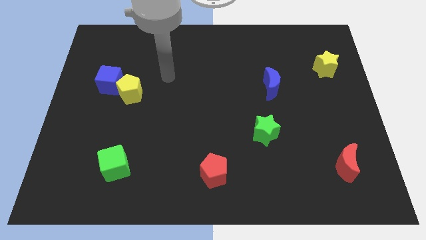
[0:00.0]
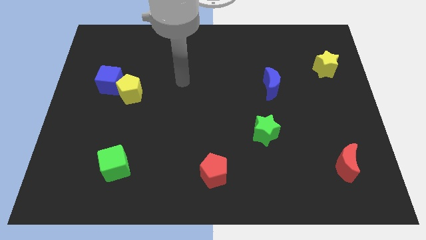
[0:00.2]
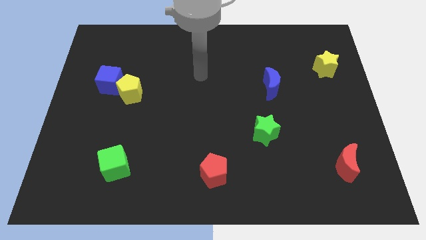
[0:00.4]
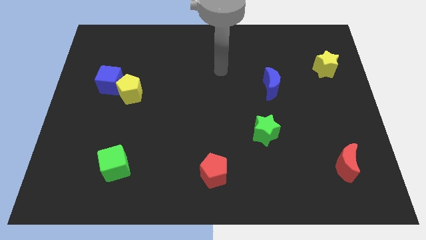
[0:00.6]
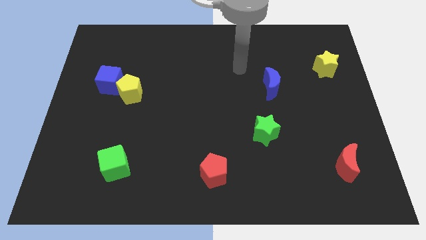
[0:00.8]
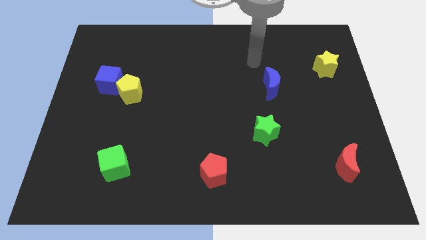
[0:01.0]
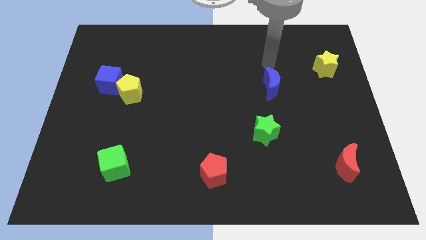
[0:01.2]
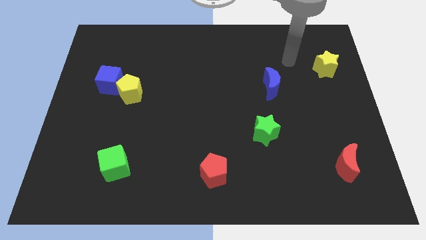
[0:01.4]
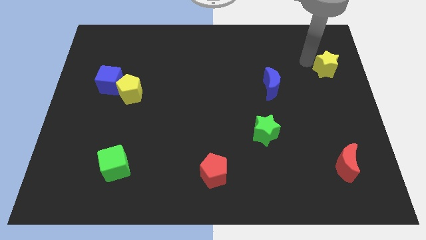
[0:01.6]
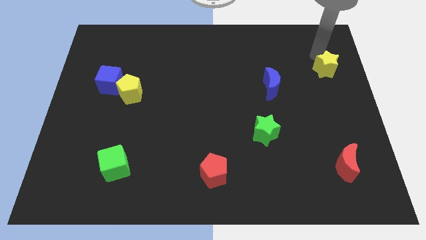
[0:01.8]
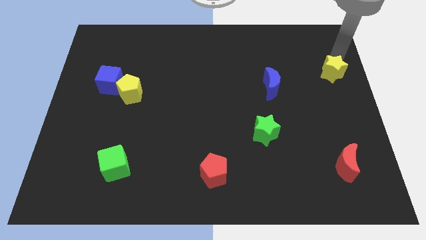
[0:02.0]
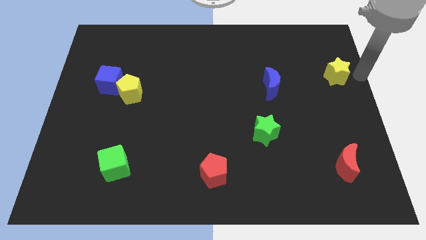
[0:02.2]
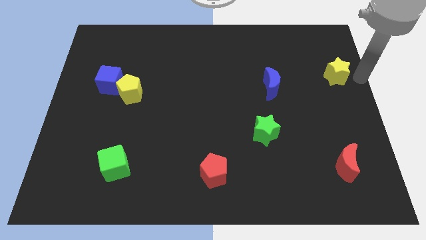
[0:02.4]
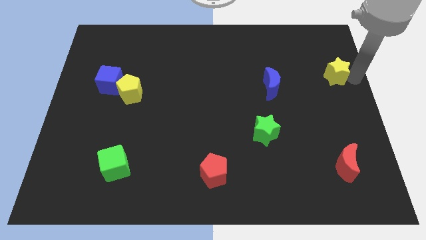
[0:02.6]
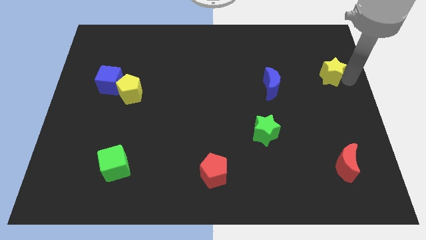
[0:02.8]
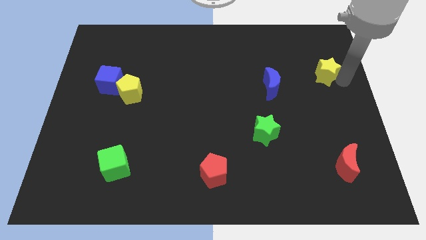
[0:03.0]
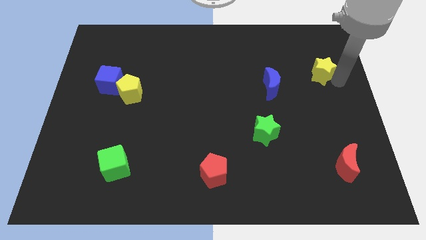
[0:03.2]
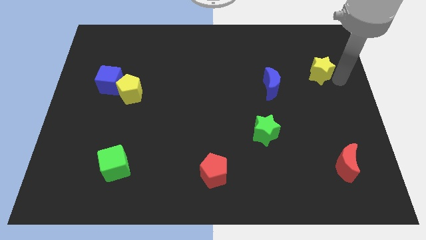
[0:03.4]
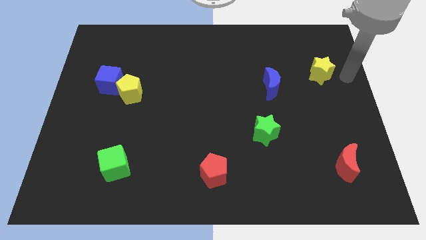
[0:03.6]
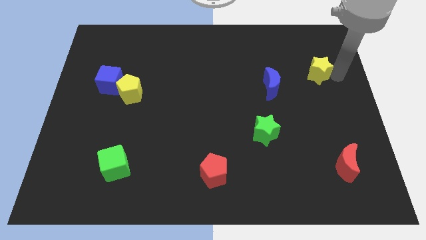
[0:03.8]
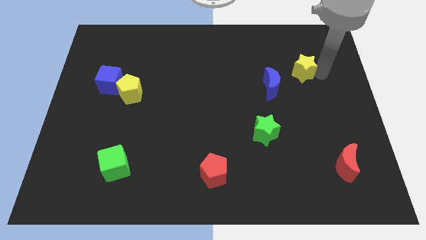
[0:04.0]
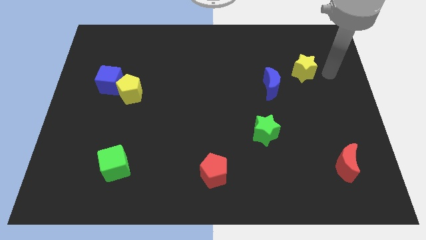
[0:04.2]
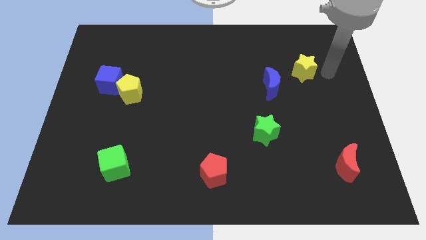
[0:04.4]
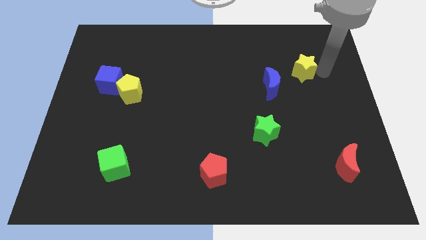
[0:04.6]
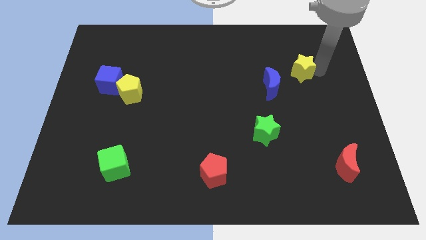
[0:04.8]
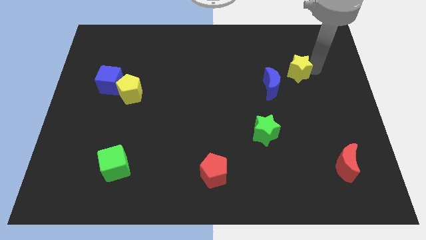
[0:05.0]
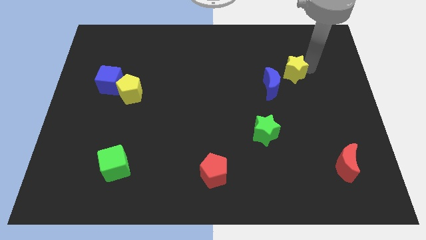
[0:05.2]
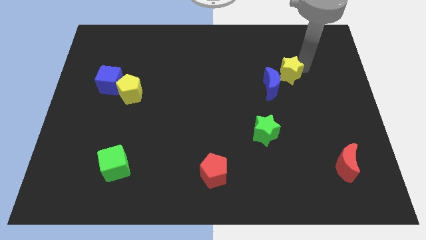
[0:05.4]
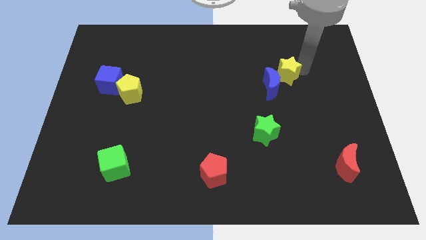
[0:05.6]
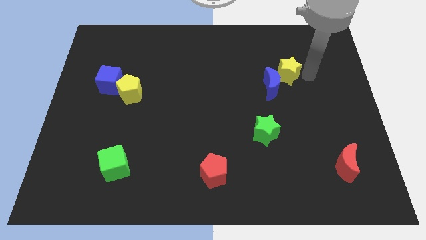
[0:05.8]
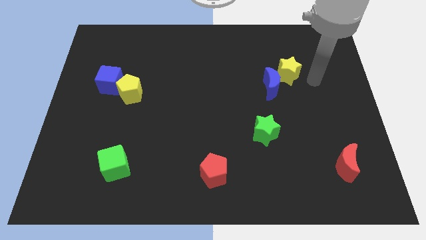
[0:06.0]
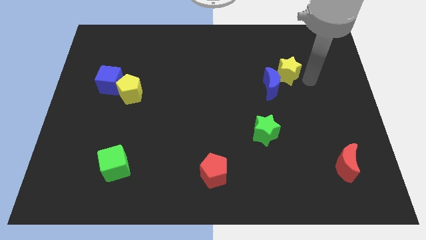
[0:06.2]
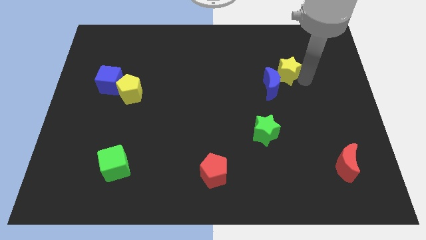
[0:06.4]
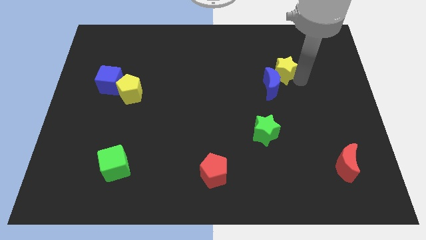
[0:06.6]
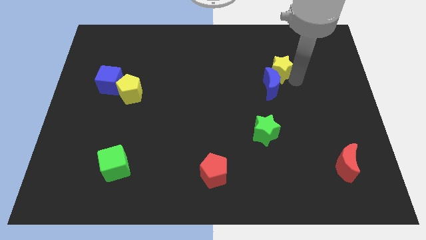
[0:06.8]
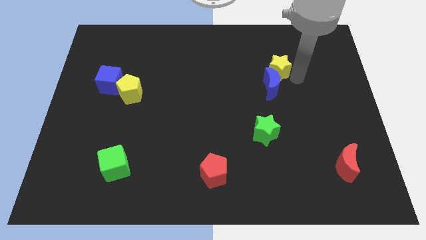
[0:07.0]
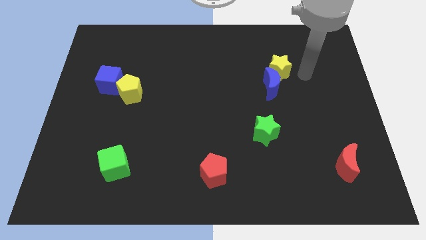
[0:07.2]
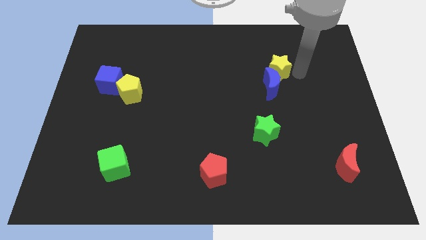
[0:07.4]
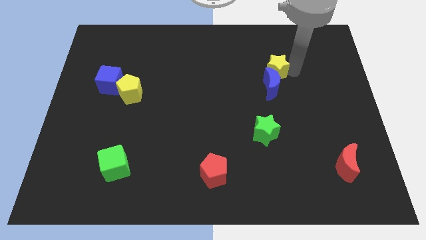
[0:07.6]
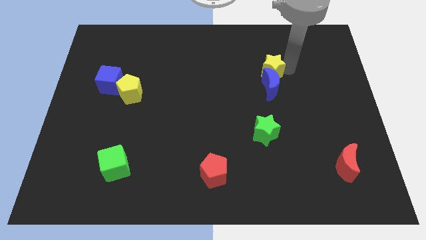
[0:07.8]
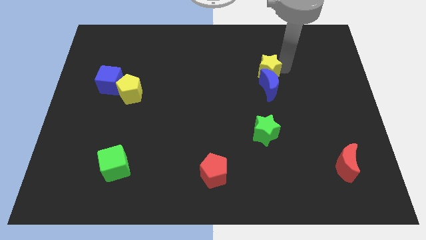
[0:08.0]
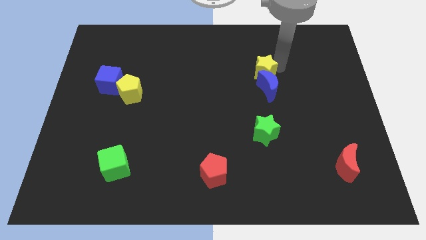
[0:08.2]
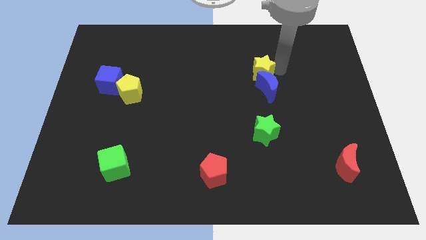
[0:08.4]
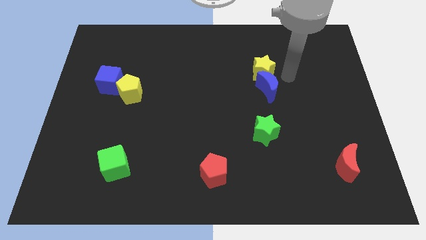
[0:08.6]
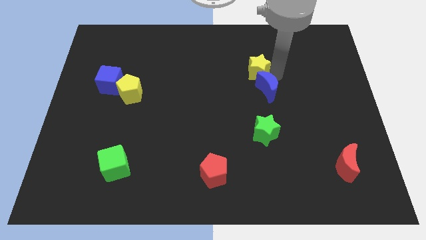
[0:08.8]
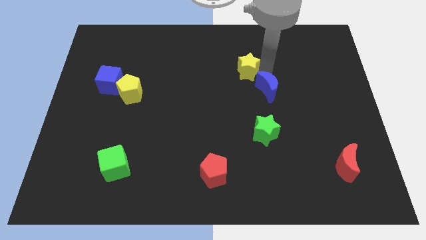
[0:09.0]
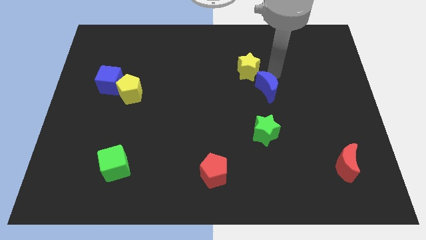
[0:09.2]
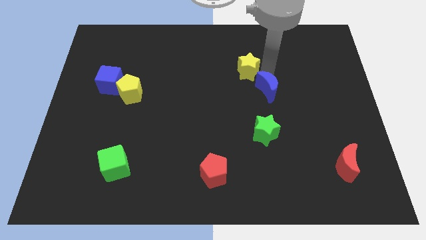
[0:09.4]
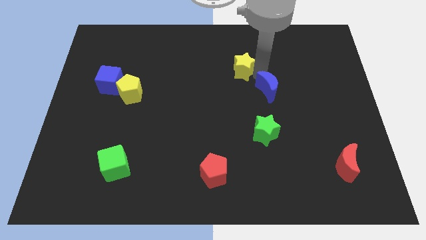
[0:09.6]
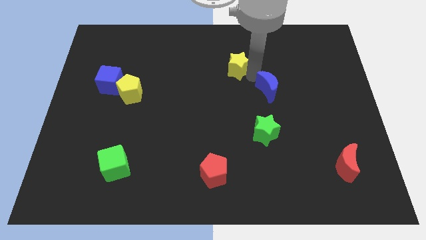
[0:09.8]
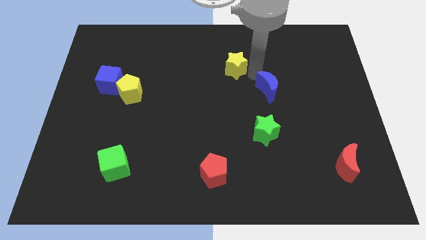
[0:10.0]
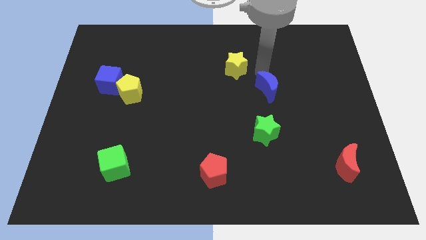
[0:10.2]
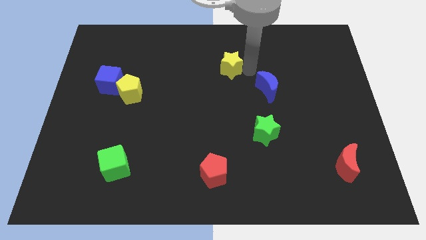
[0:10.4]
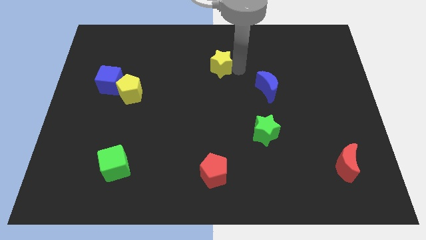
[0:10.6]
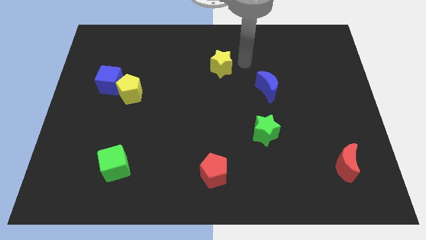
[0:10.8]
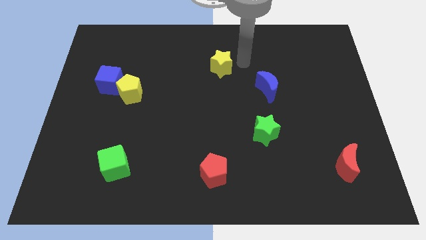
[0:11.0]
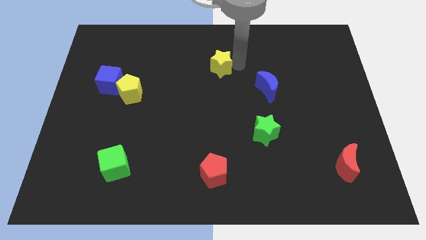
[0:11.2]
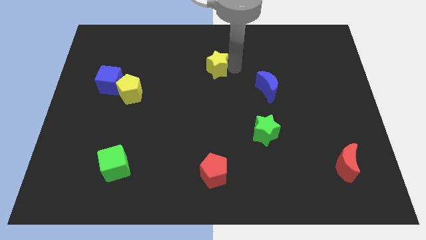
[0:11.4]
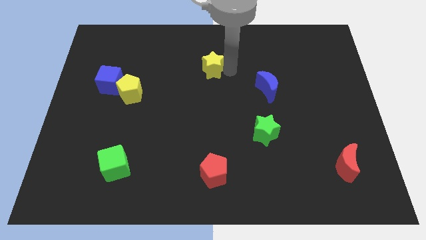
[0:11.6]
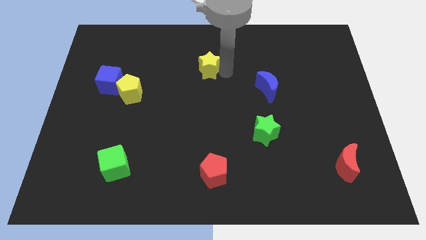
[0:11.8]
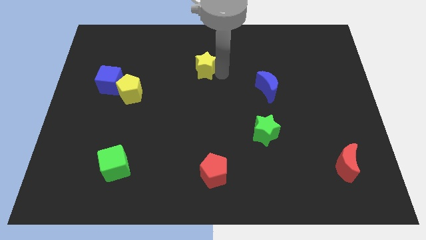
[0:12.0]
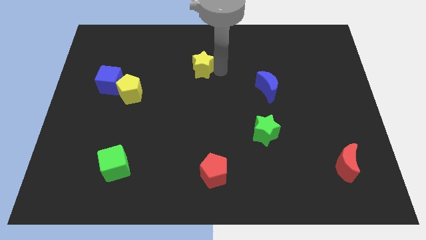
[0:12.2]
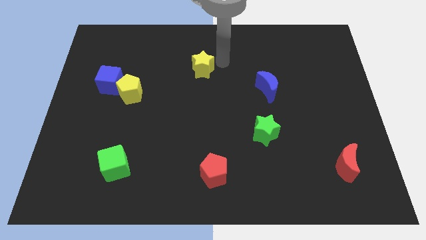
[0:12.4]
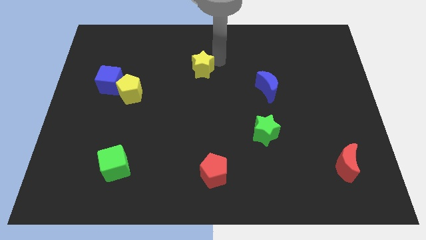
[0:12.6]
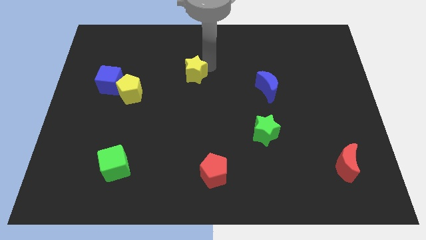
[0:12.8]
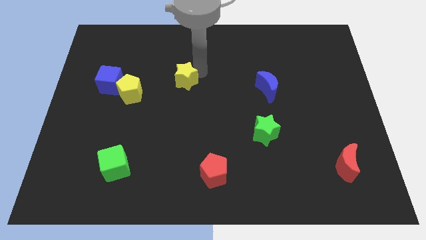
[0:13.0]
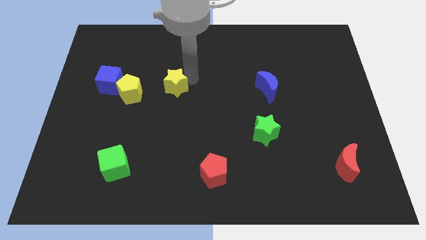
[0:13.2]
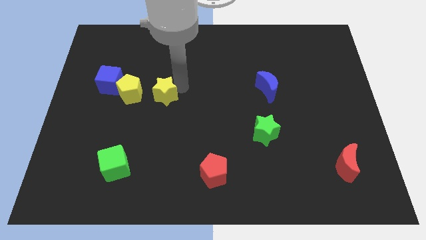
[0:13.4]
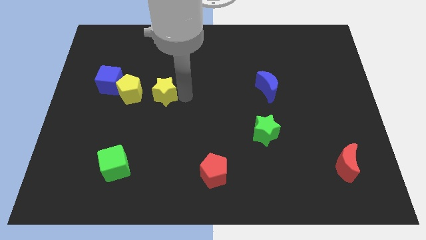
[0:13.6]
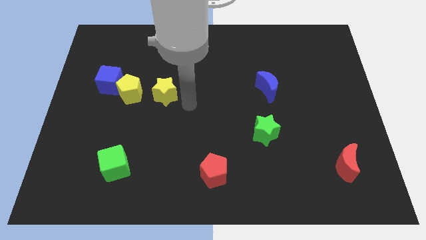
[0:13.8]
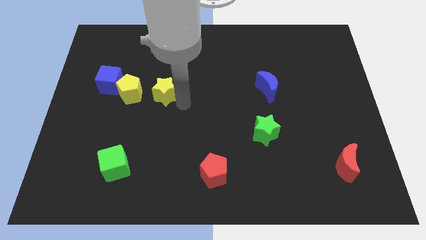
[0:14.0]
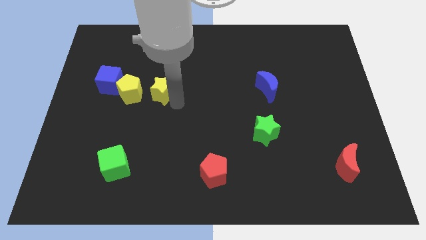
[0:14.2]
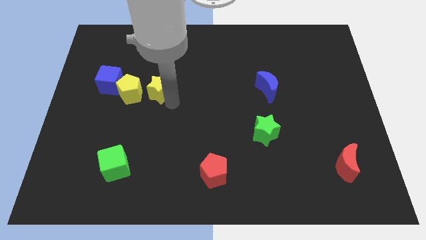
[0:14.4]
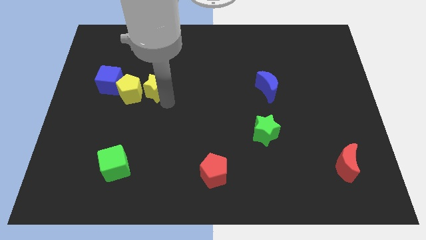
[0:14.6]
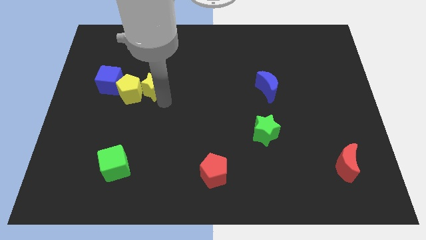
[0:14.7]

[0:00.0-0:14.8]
push the yellow star towards the yellow pentagon
